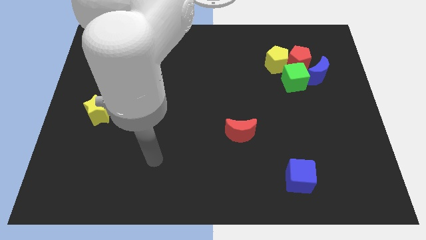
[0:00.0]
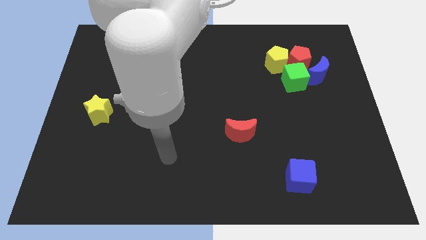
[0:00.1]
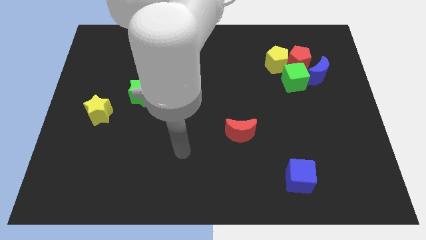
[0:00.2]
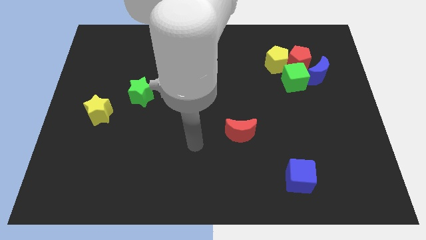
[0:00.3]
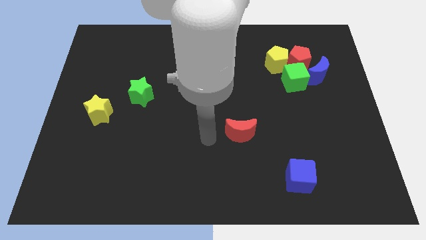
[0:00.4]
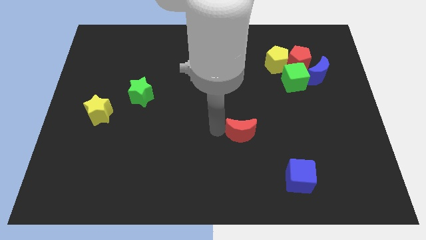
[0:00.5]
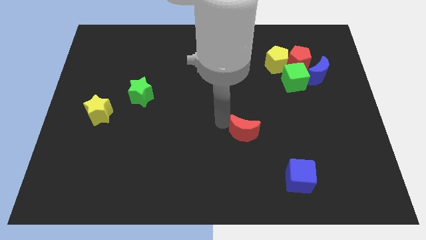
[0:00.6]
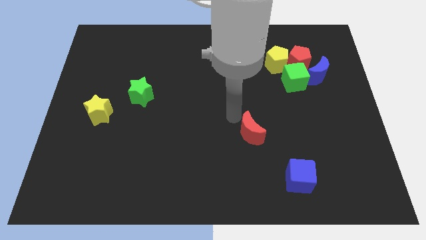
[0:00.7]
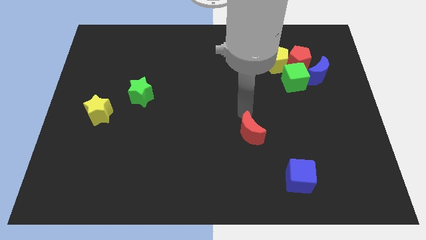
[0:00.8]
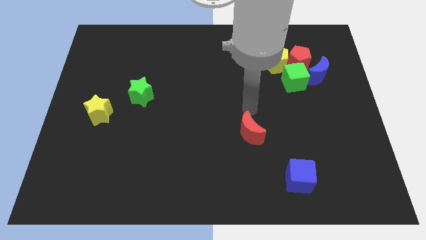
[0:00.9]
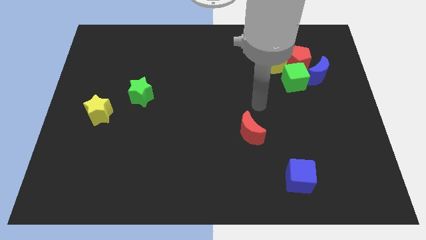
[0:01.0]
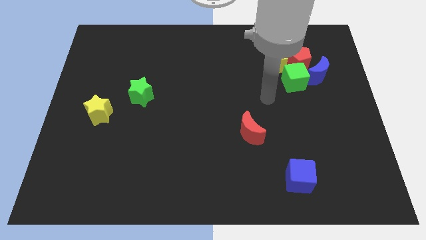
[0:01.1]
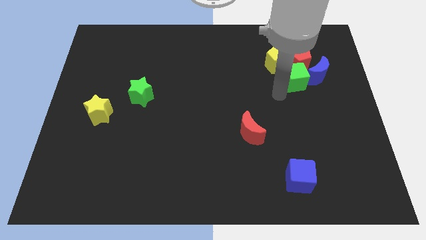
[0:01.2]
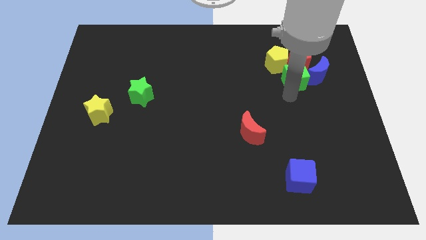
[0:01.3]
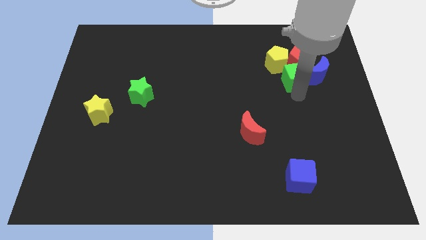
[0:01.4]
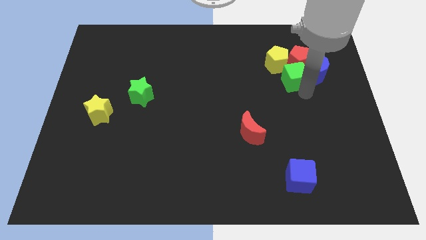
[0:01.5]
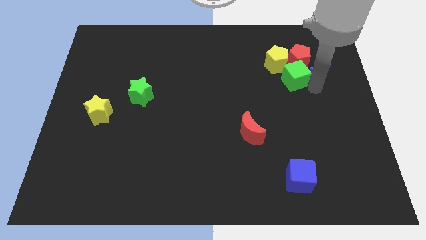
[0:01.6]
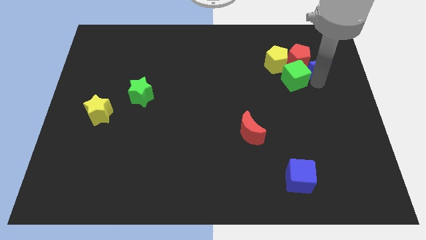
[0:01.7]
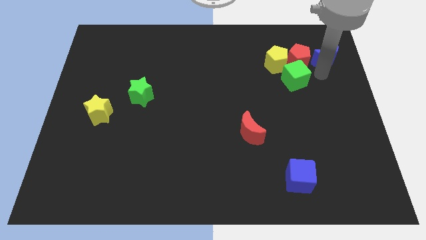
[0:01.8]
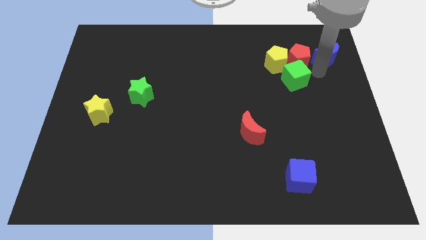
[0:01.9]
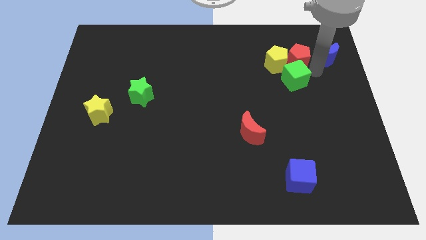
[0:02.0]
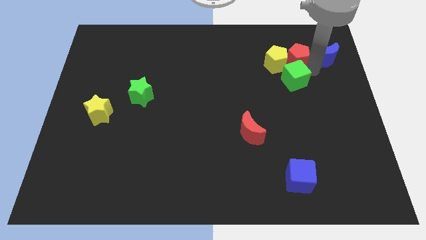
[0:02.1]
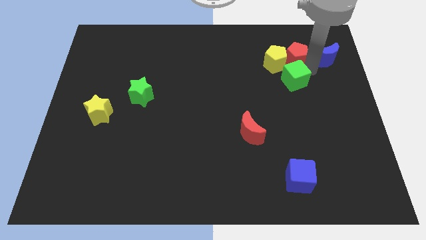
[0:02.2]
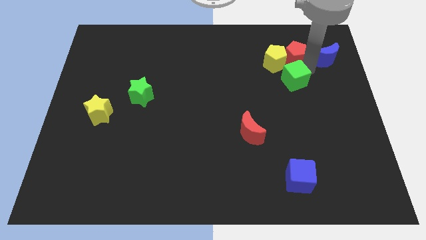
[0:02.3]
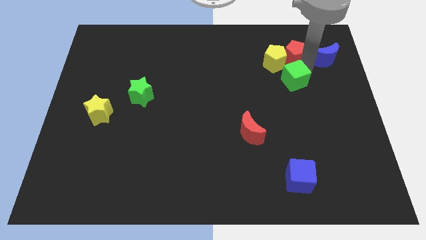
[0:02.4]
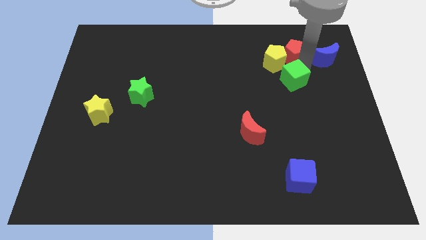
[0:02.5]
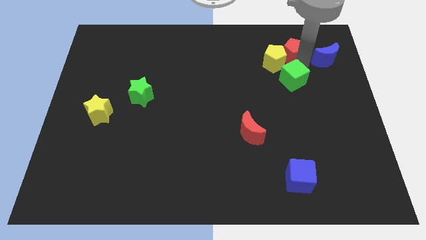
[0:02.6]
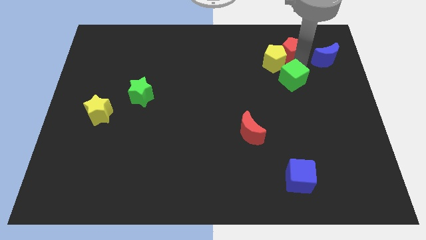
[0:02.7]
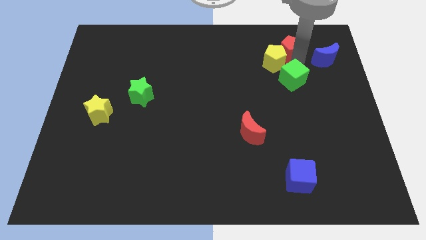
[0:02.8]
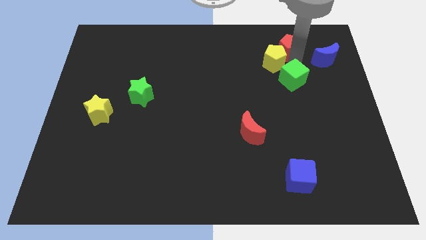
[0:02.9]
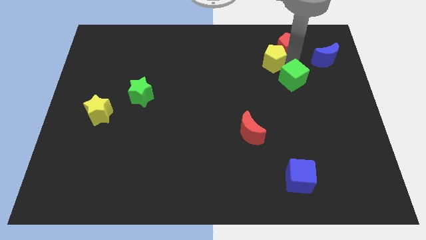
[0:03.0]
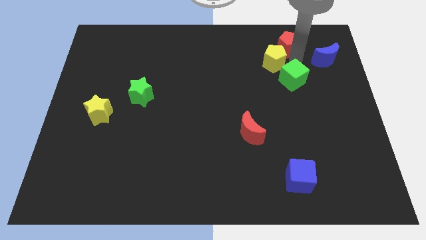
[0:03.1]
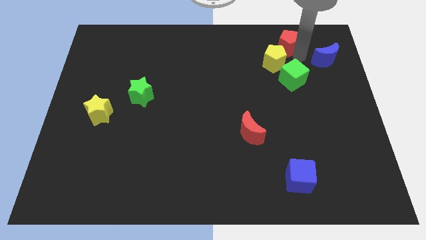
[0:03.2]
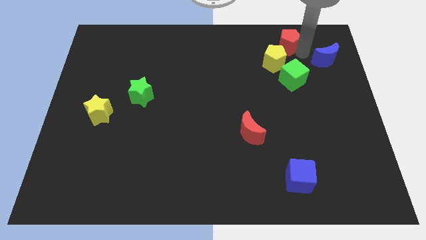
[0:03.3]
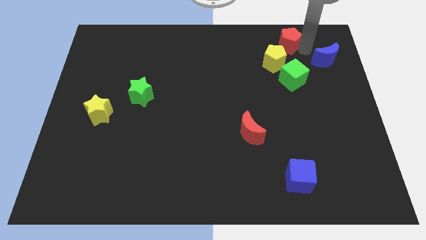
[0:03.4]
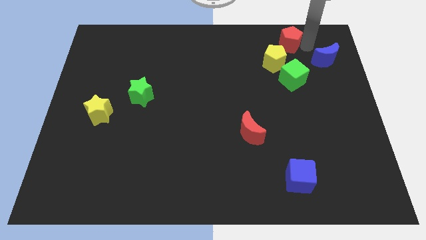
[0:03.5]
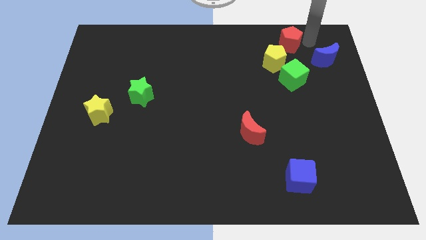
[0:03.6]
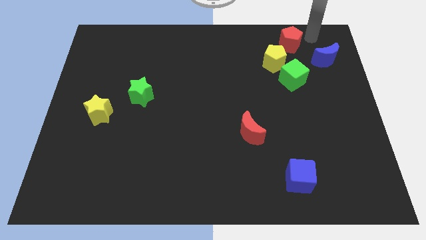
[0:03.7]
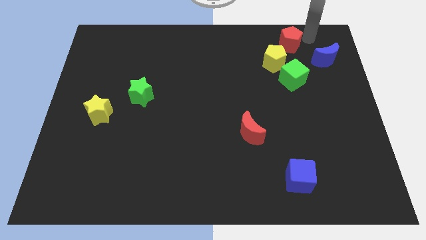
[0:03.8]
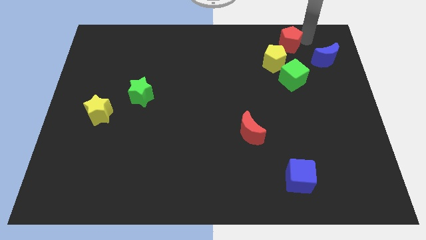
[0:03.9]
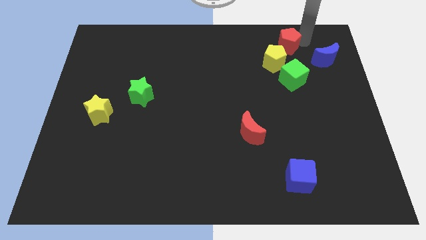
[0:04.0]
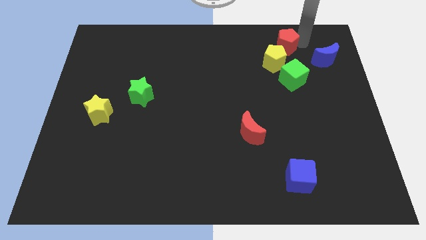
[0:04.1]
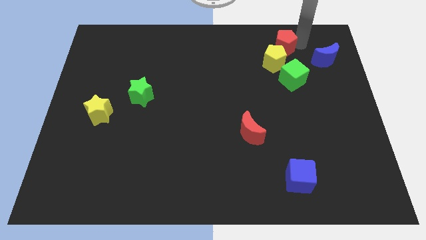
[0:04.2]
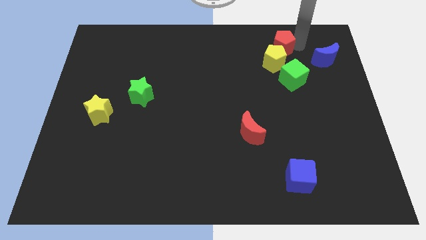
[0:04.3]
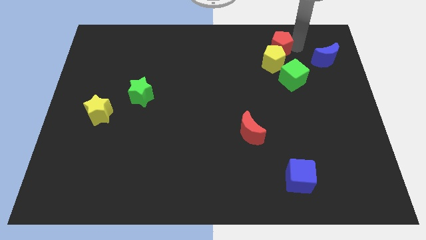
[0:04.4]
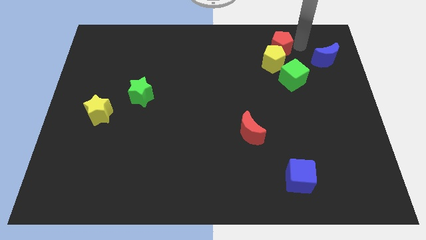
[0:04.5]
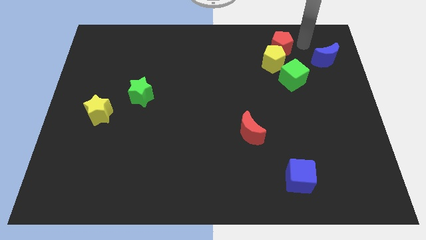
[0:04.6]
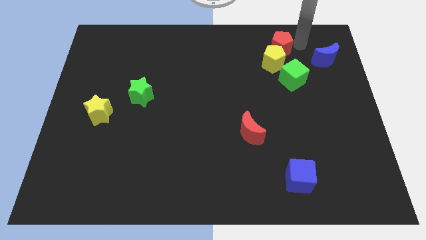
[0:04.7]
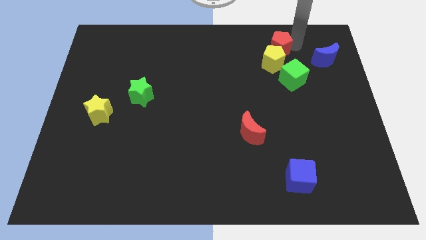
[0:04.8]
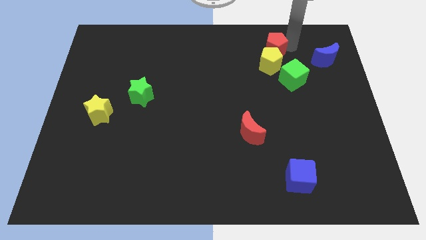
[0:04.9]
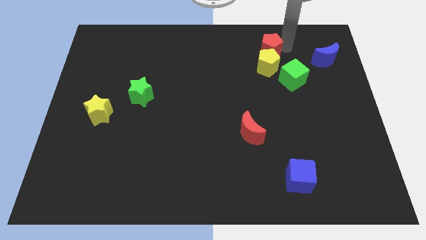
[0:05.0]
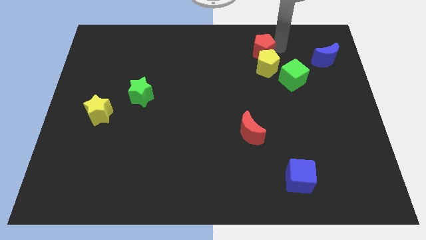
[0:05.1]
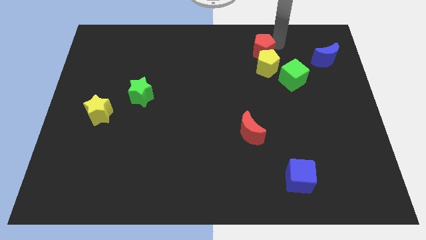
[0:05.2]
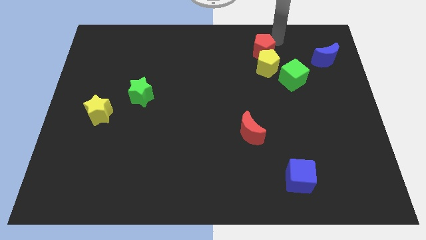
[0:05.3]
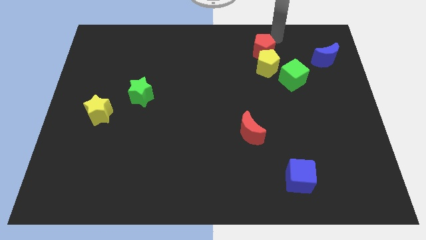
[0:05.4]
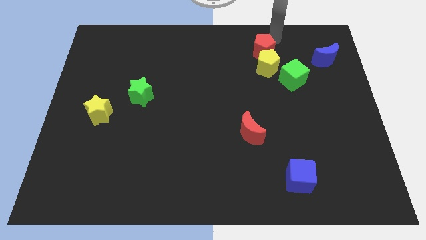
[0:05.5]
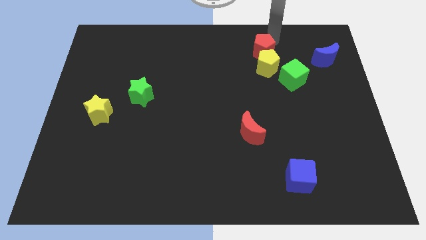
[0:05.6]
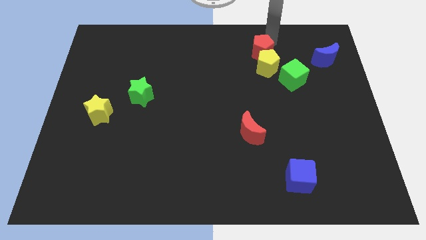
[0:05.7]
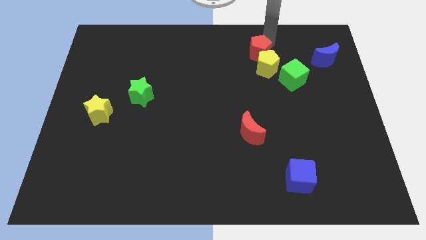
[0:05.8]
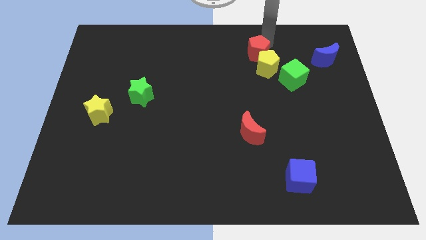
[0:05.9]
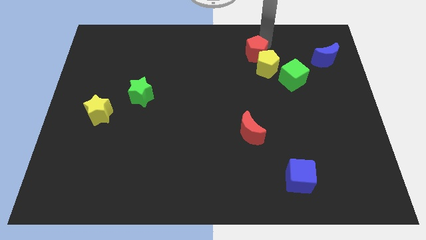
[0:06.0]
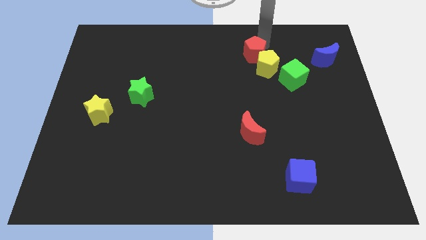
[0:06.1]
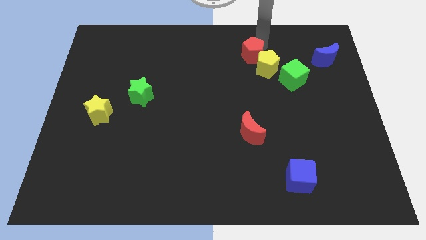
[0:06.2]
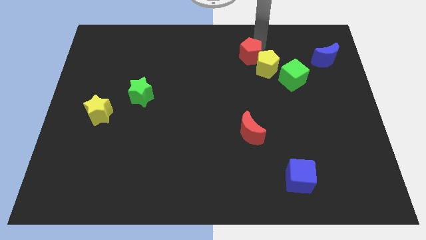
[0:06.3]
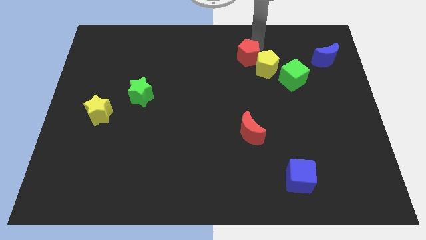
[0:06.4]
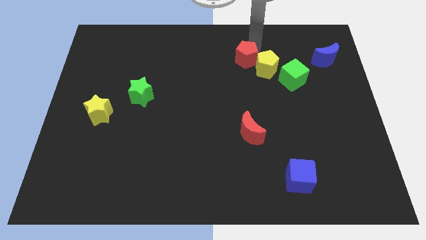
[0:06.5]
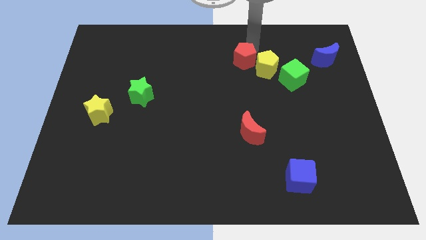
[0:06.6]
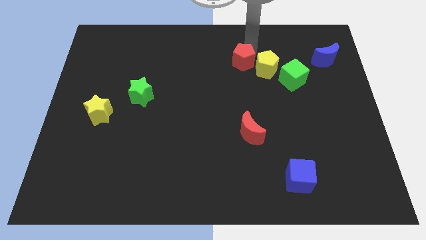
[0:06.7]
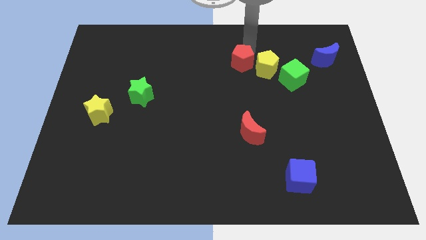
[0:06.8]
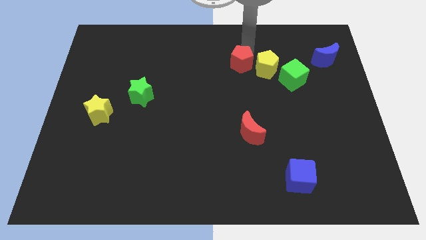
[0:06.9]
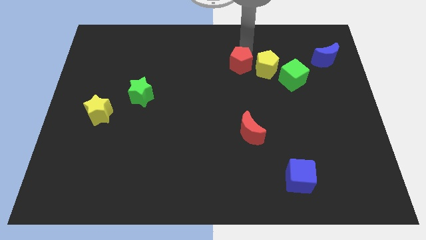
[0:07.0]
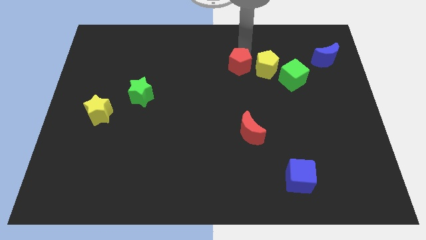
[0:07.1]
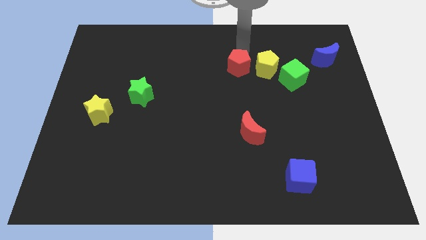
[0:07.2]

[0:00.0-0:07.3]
slightly move the red pentagon diagonally down and left

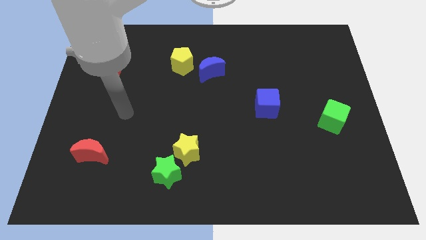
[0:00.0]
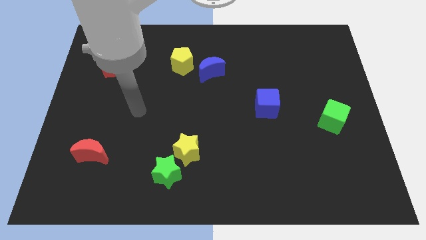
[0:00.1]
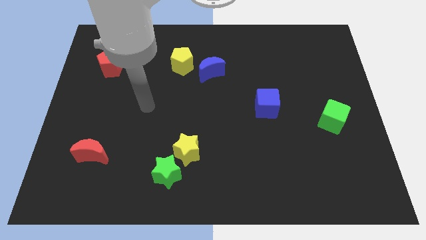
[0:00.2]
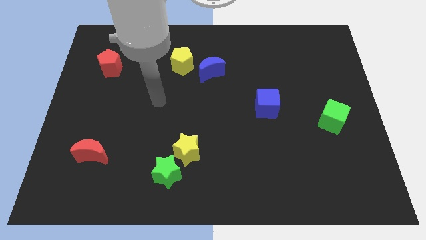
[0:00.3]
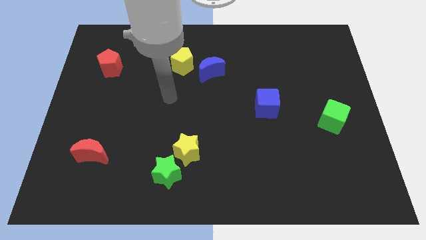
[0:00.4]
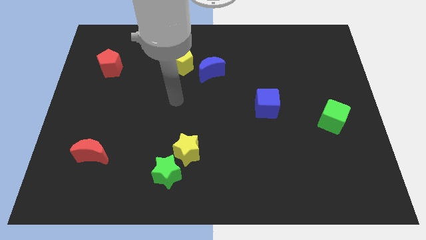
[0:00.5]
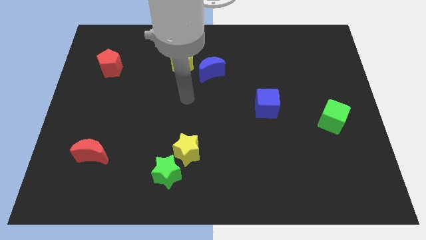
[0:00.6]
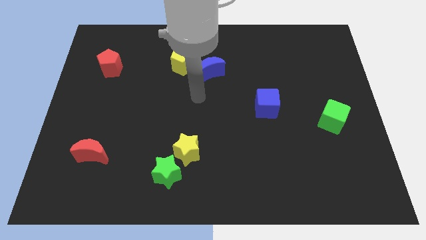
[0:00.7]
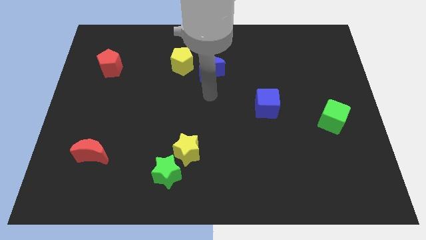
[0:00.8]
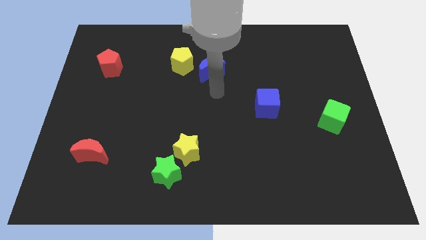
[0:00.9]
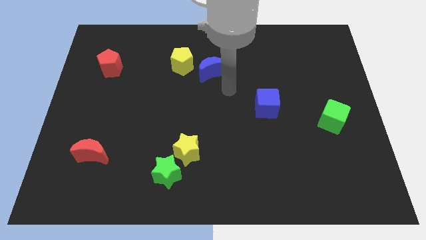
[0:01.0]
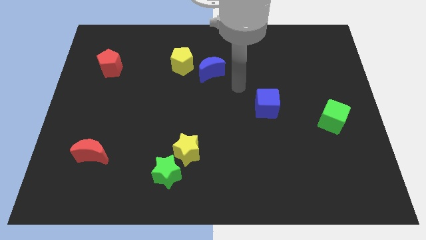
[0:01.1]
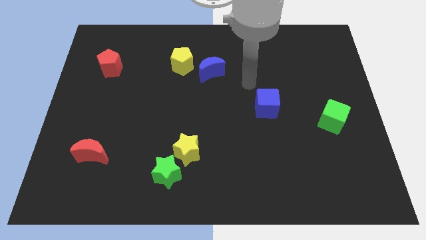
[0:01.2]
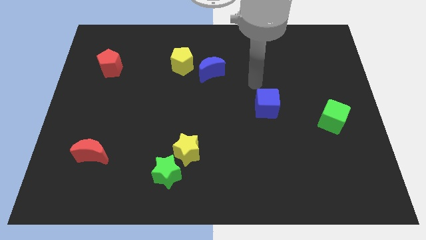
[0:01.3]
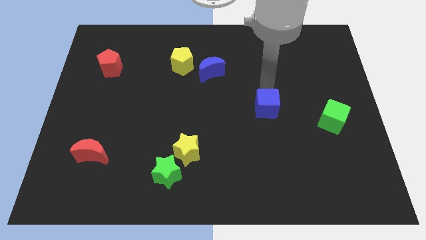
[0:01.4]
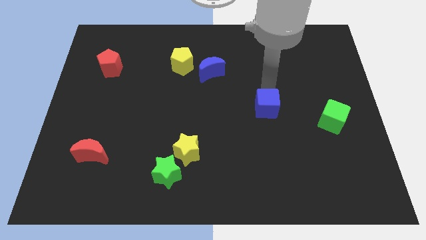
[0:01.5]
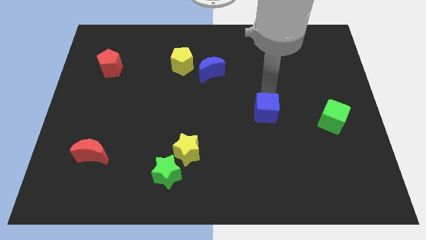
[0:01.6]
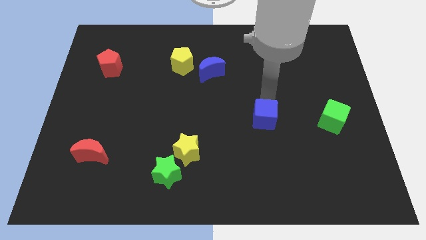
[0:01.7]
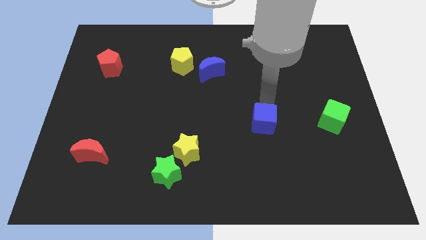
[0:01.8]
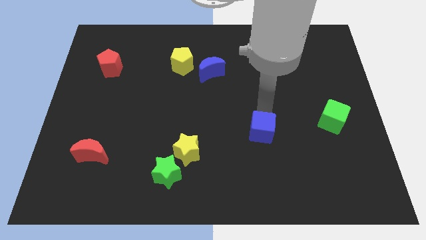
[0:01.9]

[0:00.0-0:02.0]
slide the blue cube down a little bit
